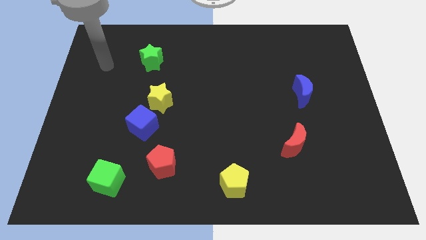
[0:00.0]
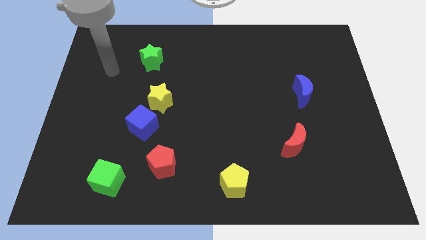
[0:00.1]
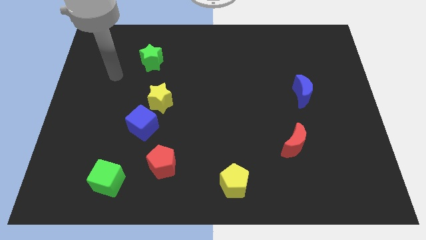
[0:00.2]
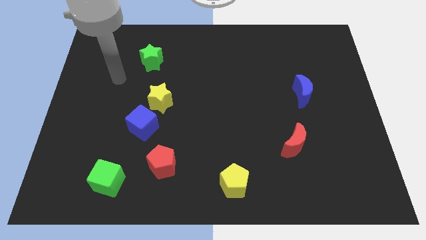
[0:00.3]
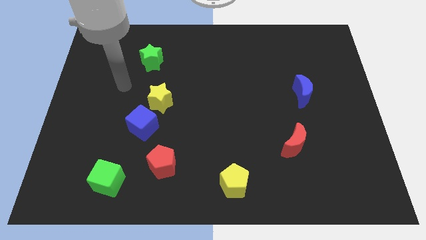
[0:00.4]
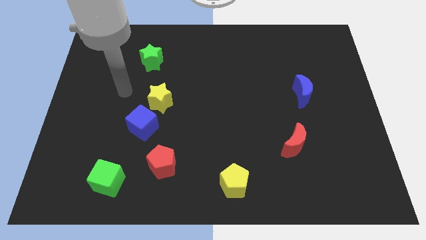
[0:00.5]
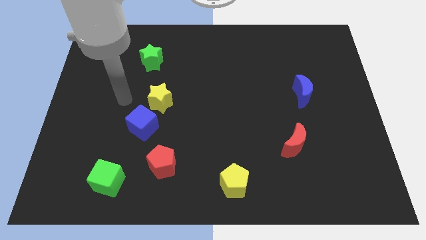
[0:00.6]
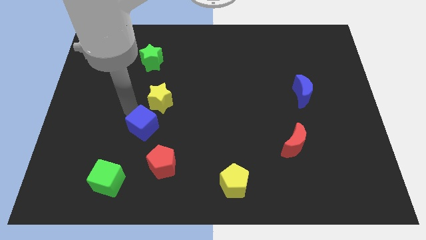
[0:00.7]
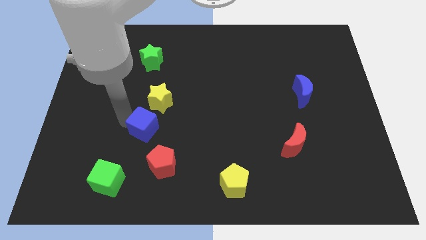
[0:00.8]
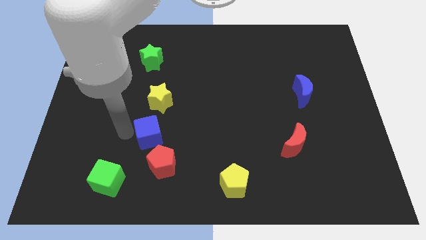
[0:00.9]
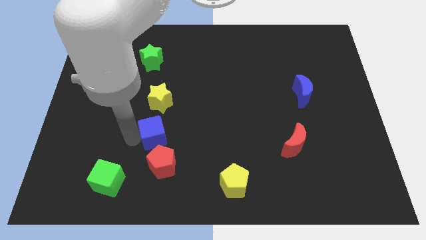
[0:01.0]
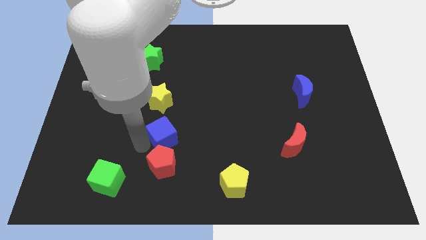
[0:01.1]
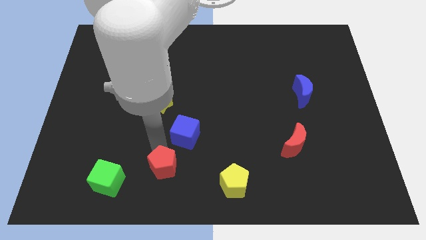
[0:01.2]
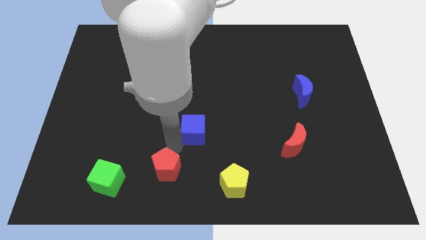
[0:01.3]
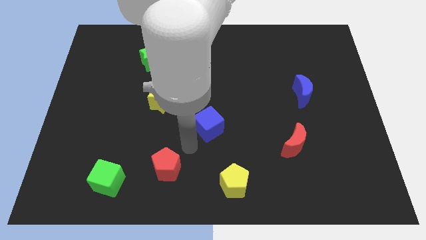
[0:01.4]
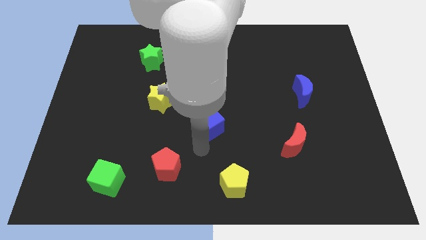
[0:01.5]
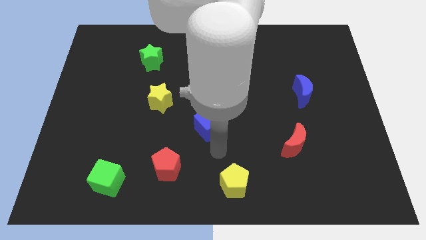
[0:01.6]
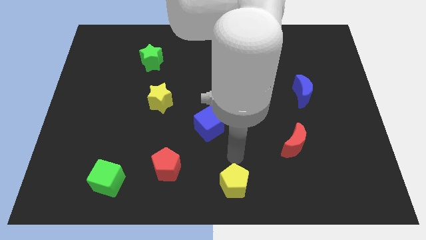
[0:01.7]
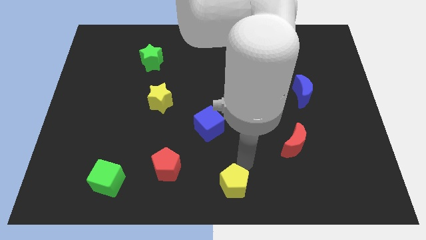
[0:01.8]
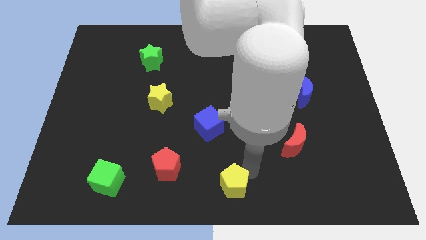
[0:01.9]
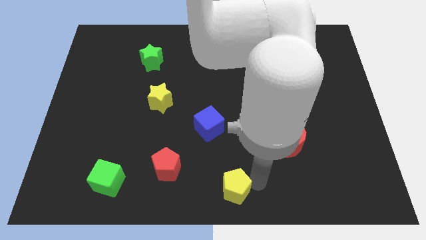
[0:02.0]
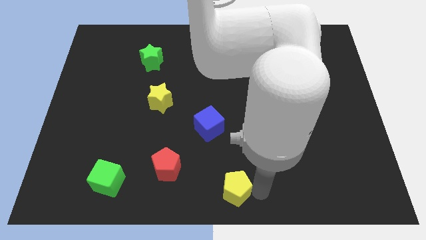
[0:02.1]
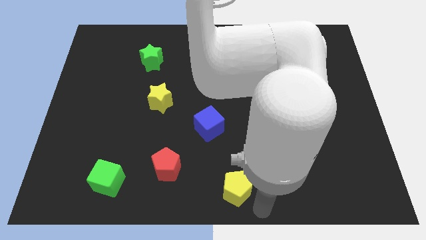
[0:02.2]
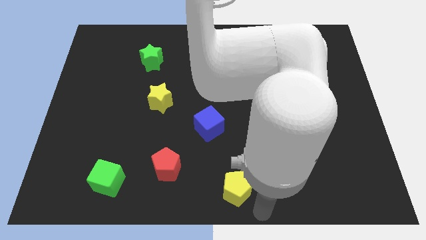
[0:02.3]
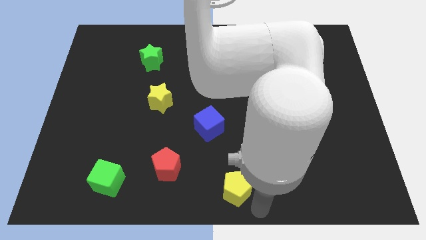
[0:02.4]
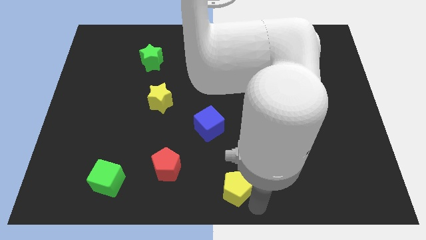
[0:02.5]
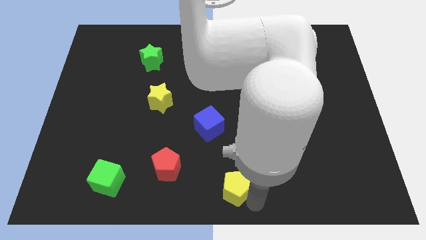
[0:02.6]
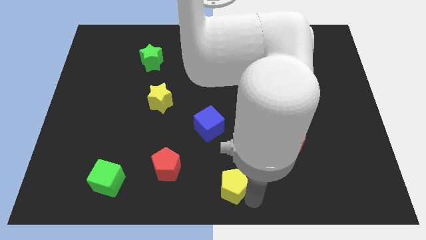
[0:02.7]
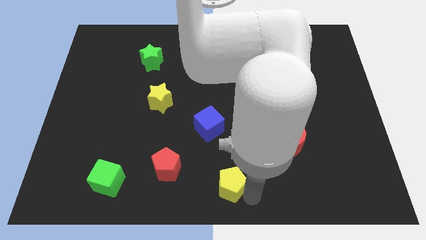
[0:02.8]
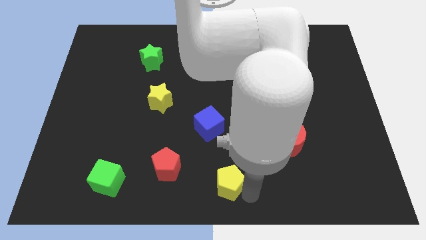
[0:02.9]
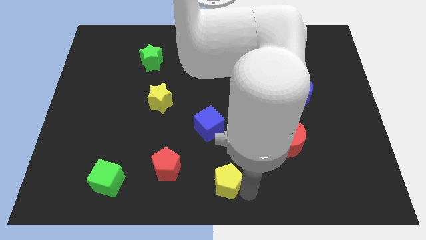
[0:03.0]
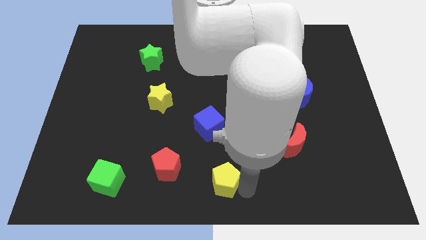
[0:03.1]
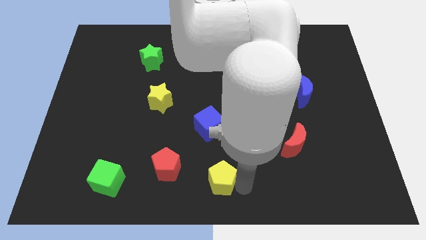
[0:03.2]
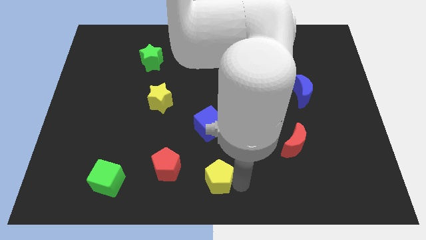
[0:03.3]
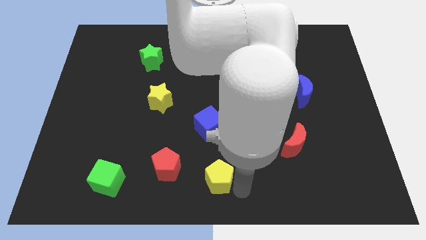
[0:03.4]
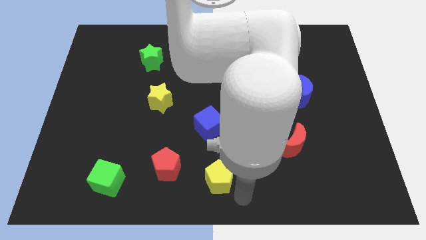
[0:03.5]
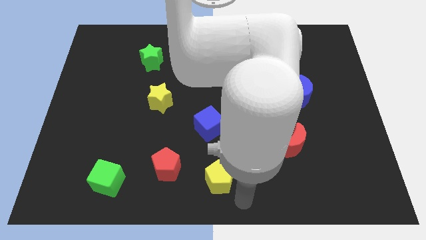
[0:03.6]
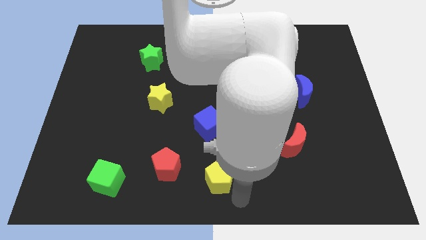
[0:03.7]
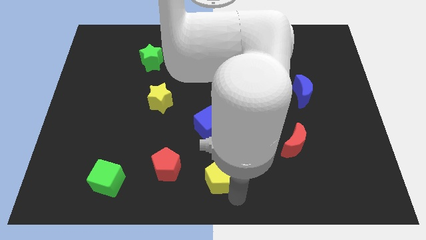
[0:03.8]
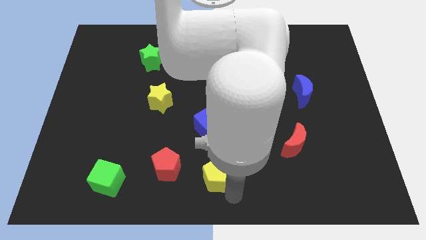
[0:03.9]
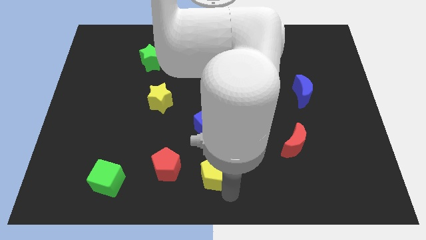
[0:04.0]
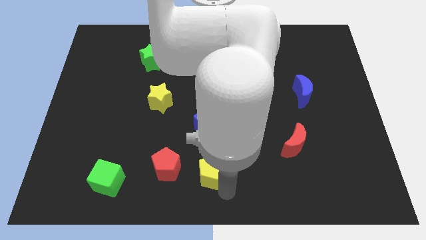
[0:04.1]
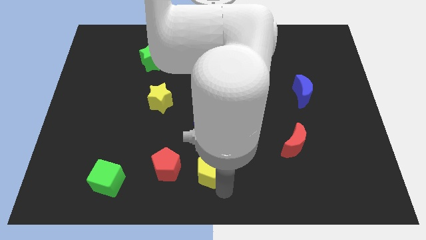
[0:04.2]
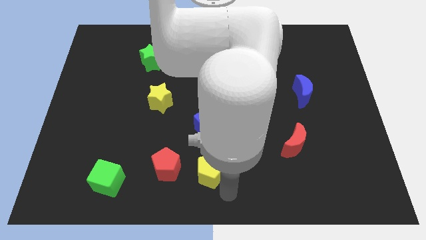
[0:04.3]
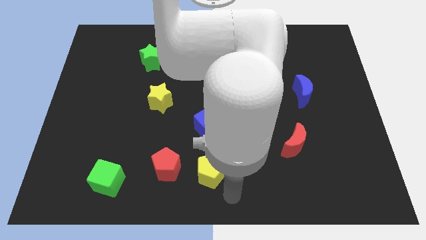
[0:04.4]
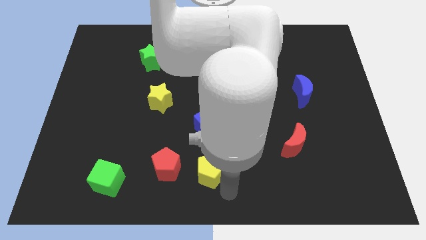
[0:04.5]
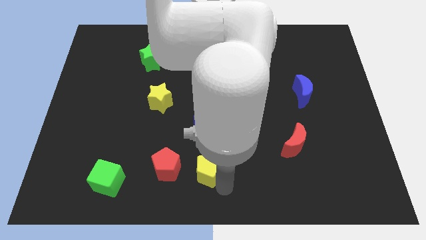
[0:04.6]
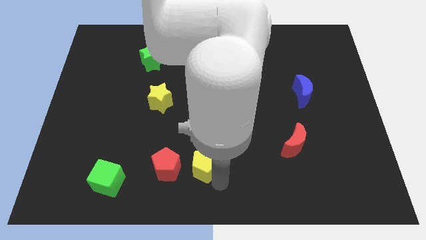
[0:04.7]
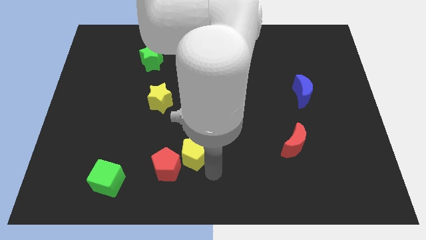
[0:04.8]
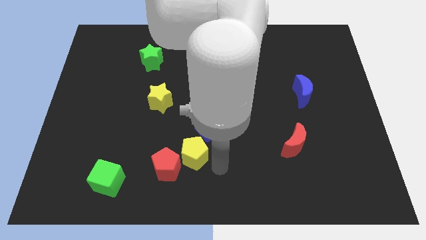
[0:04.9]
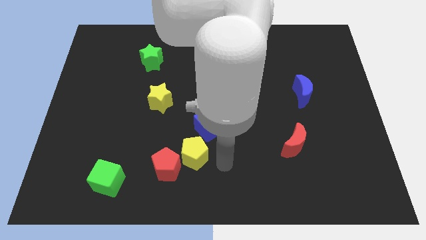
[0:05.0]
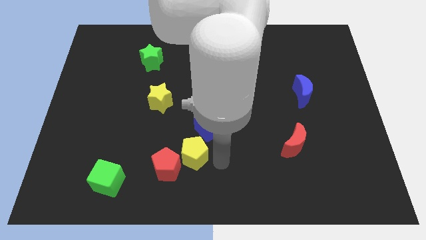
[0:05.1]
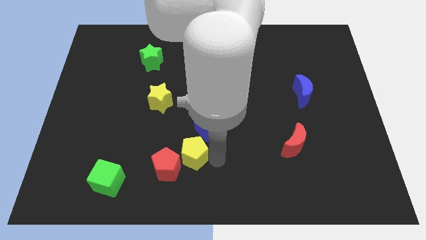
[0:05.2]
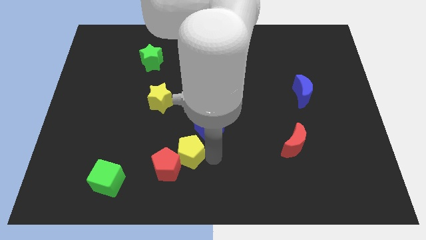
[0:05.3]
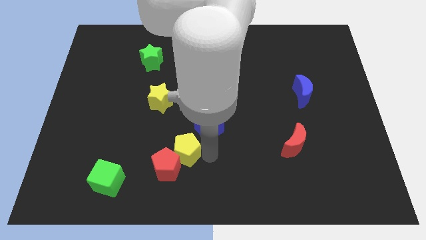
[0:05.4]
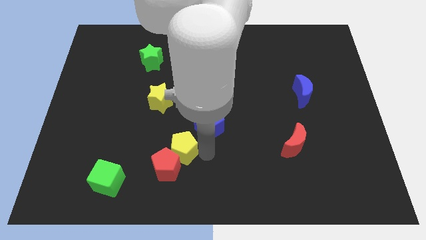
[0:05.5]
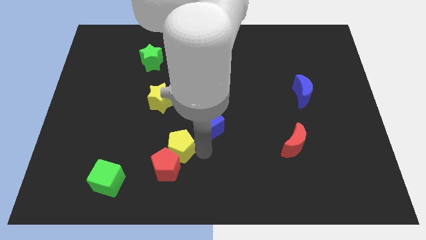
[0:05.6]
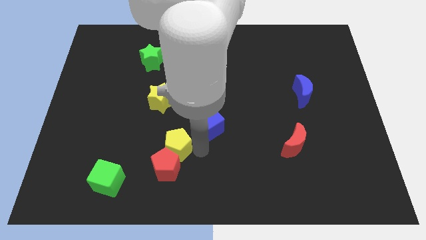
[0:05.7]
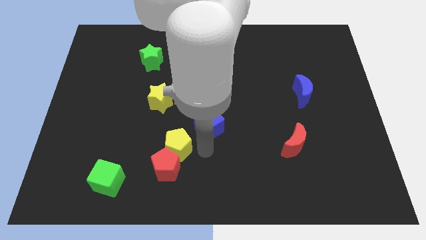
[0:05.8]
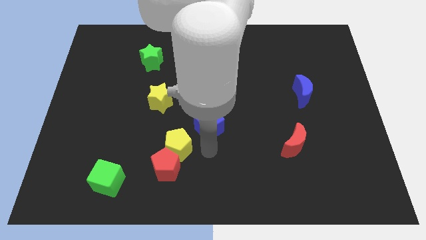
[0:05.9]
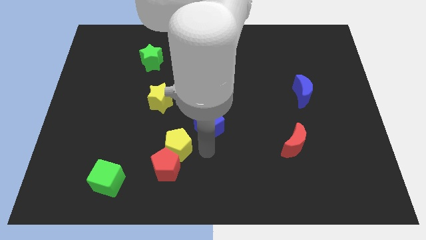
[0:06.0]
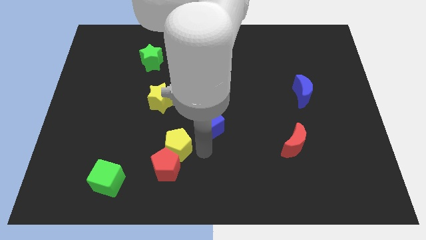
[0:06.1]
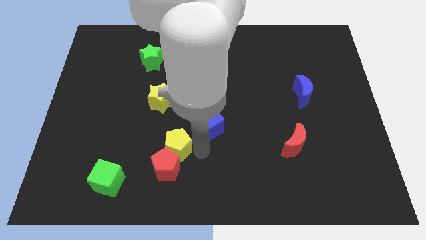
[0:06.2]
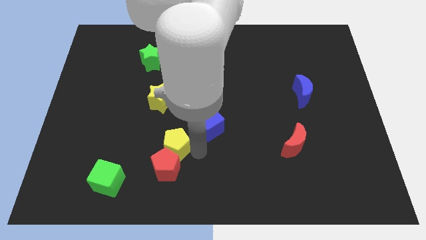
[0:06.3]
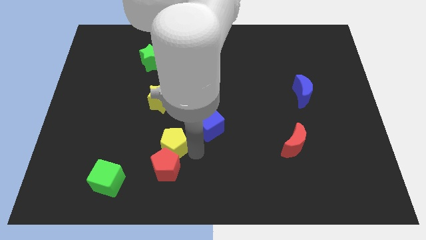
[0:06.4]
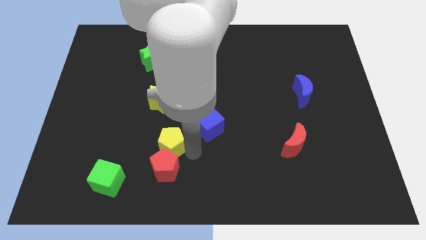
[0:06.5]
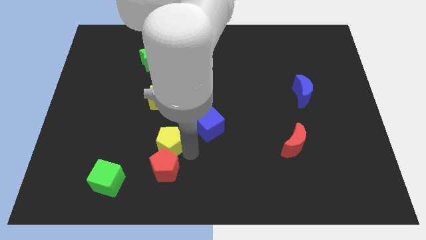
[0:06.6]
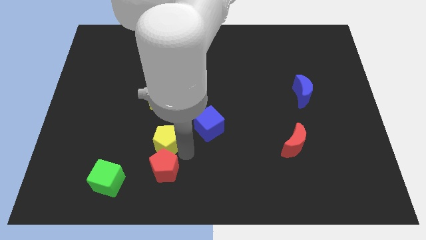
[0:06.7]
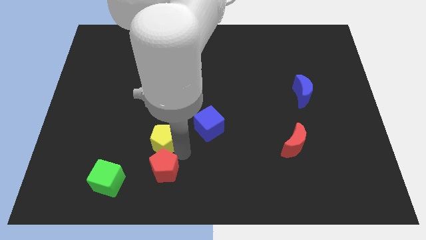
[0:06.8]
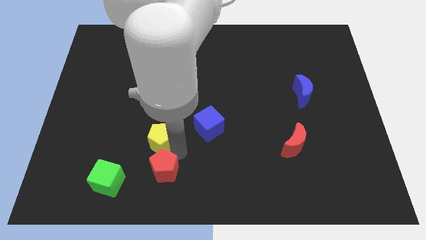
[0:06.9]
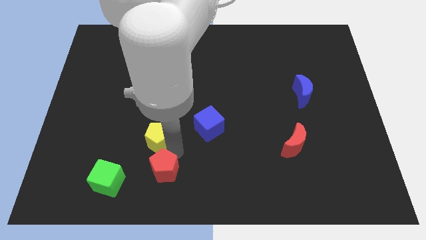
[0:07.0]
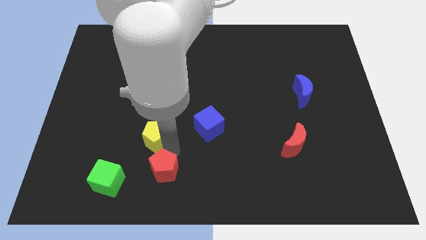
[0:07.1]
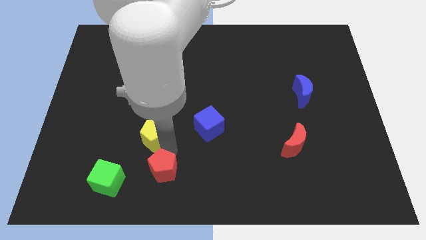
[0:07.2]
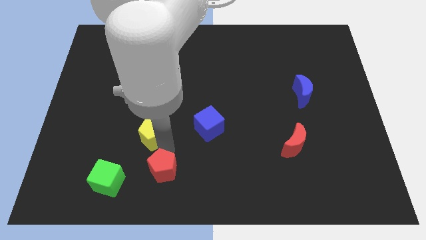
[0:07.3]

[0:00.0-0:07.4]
move the yellow pentagon upwards and left diagonally
